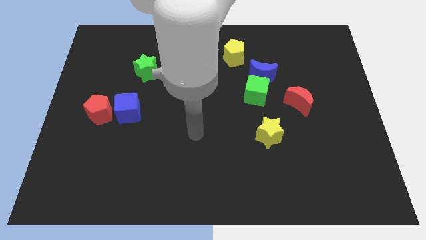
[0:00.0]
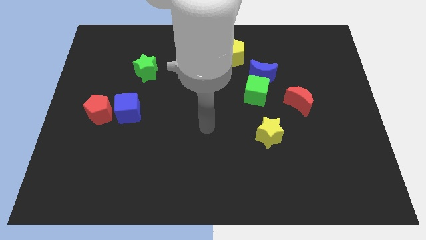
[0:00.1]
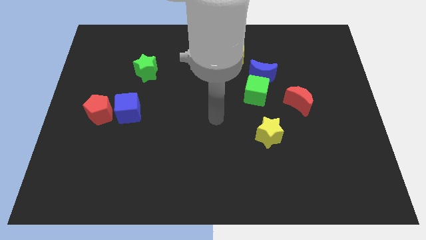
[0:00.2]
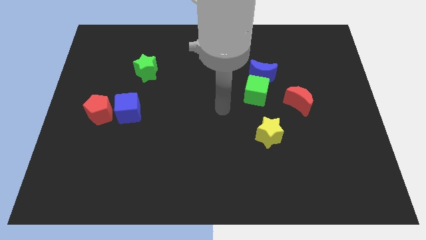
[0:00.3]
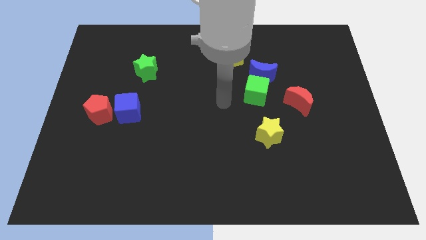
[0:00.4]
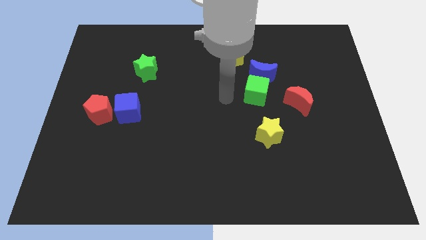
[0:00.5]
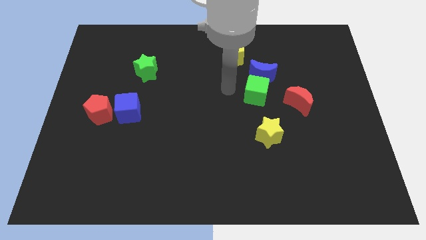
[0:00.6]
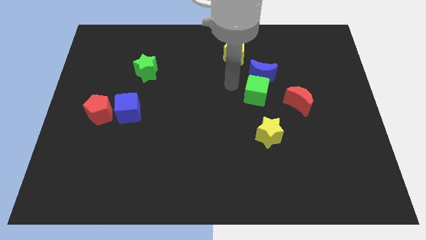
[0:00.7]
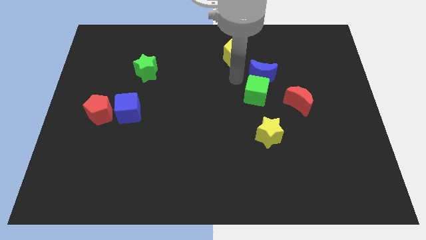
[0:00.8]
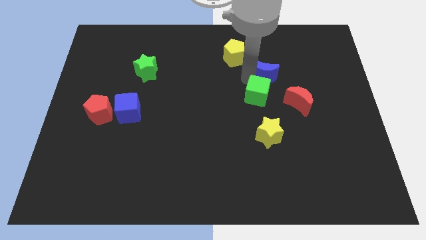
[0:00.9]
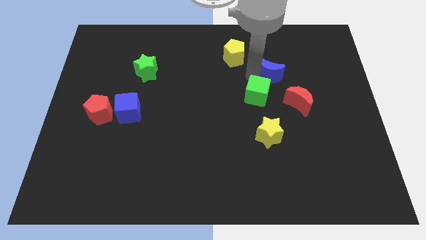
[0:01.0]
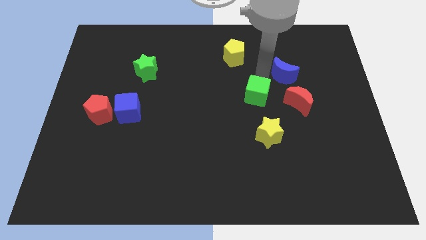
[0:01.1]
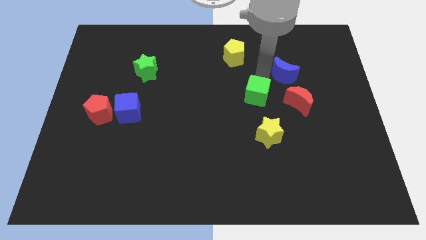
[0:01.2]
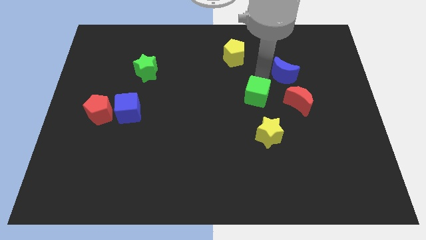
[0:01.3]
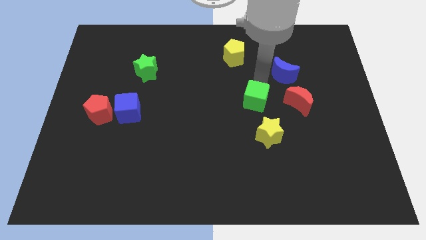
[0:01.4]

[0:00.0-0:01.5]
move the green cube away from the blue moon

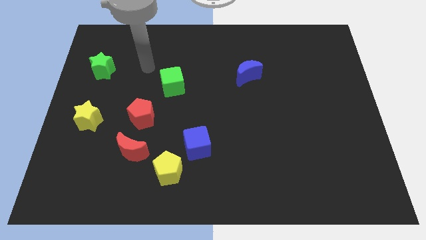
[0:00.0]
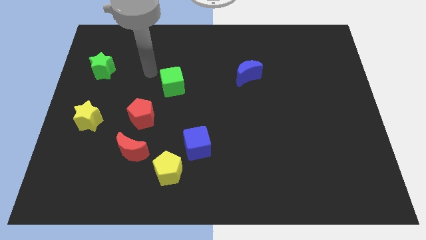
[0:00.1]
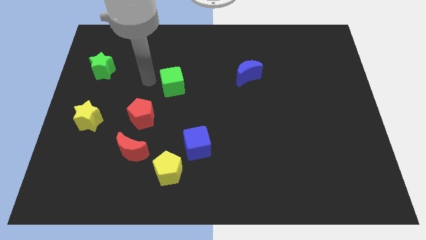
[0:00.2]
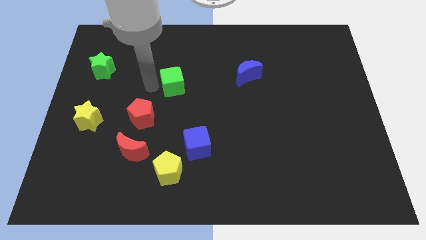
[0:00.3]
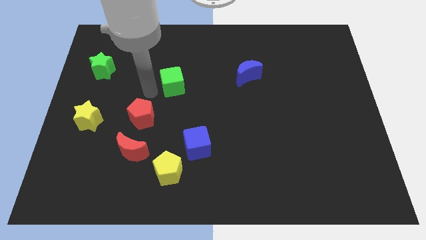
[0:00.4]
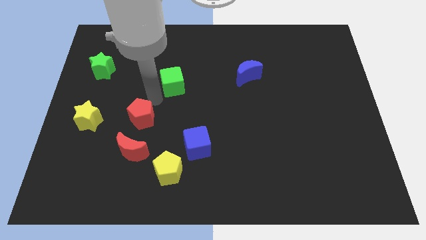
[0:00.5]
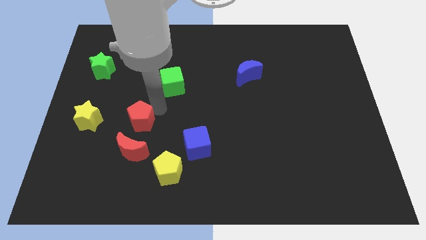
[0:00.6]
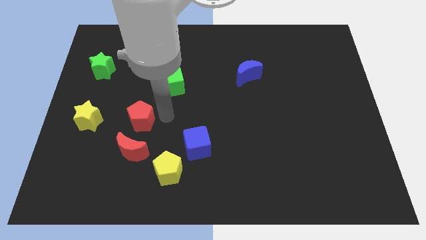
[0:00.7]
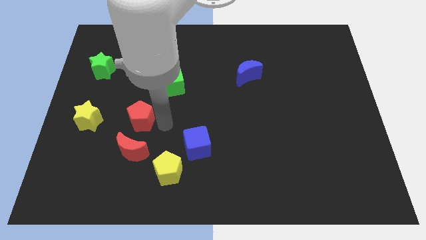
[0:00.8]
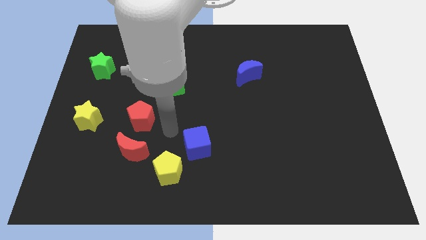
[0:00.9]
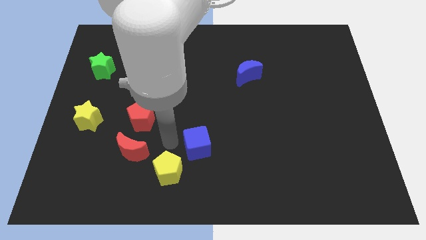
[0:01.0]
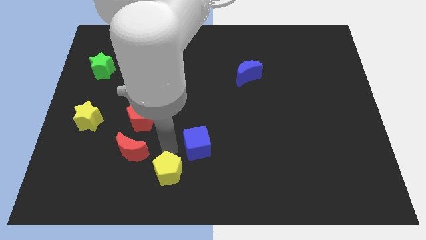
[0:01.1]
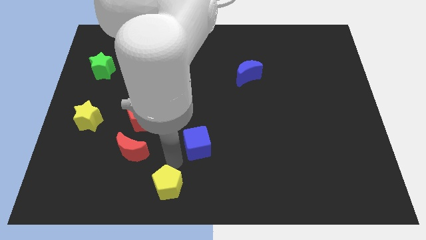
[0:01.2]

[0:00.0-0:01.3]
pull the blue cube apart from the yellow pentagon

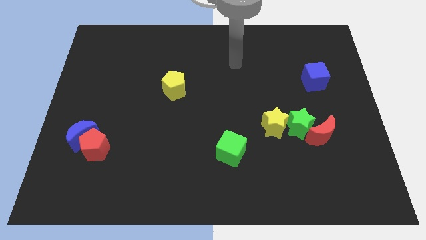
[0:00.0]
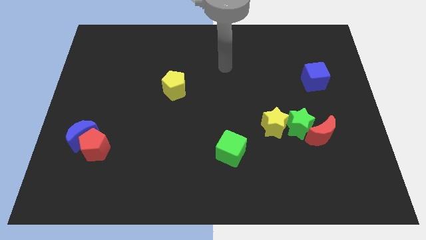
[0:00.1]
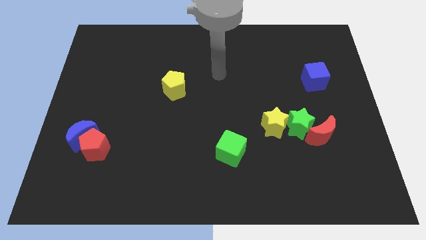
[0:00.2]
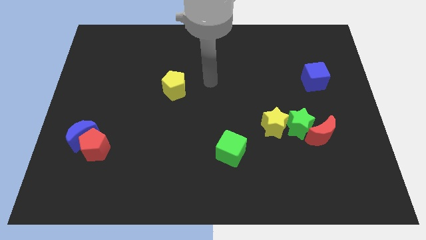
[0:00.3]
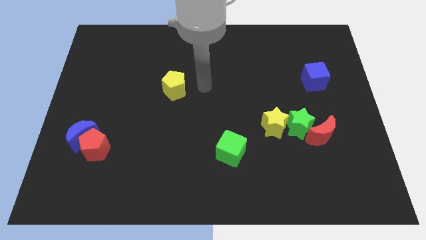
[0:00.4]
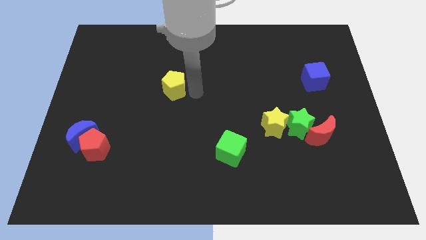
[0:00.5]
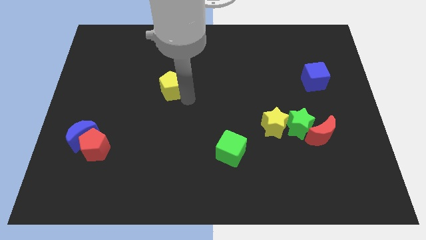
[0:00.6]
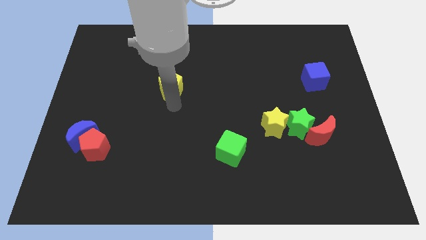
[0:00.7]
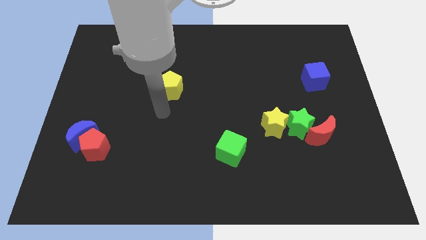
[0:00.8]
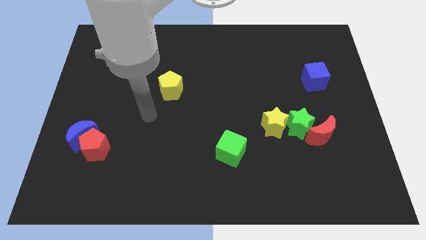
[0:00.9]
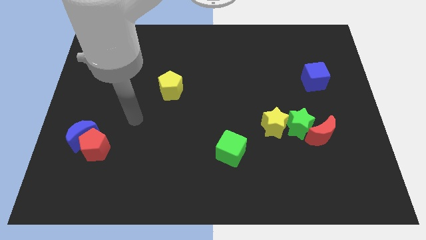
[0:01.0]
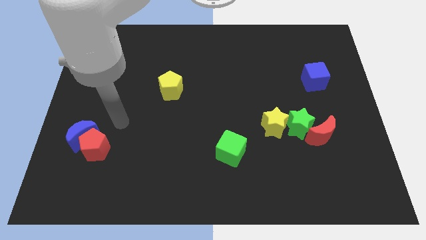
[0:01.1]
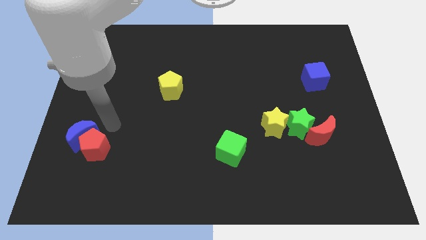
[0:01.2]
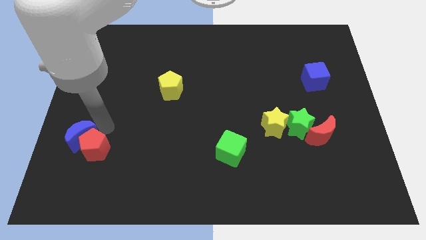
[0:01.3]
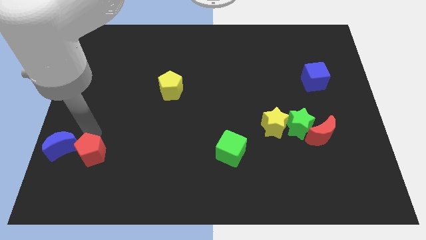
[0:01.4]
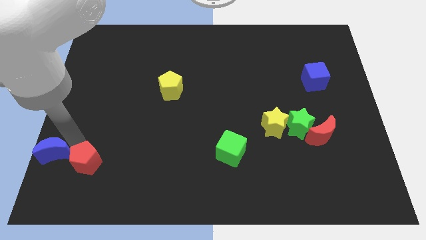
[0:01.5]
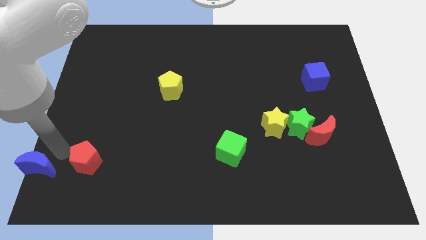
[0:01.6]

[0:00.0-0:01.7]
move the red pentagon away from the blue moon

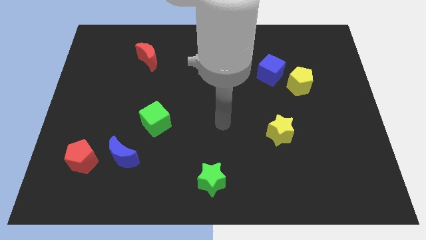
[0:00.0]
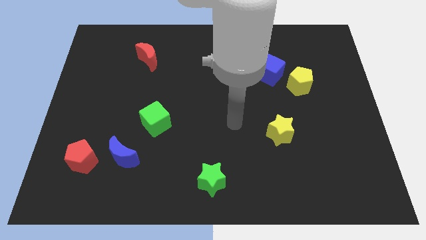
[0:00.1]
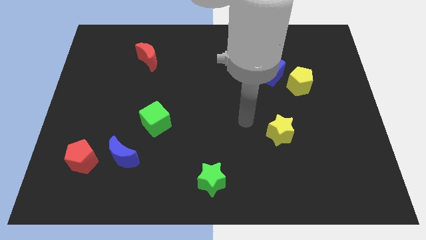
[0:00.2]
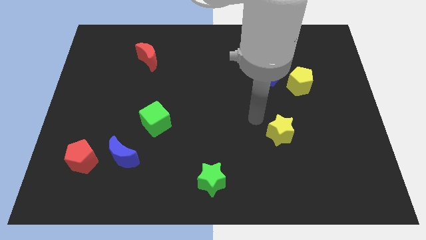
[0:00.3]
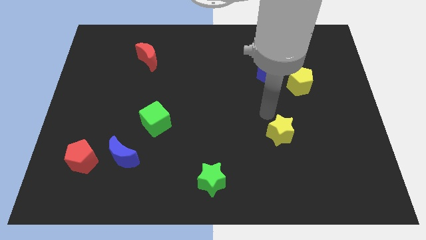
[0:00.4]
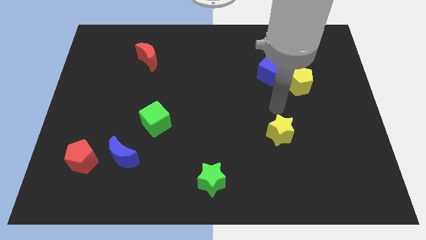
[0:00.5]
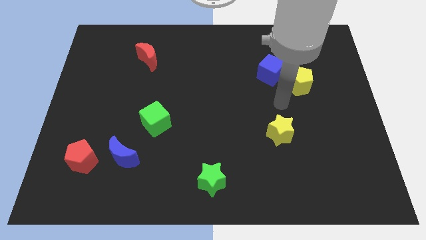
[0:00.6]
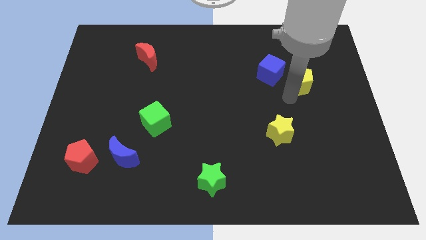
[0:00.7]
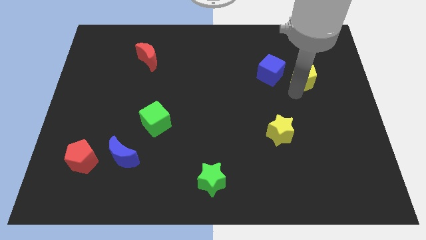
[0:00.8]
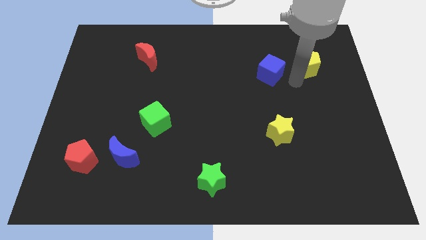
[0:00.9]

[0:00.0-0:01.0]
separate the blue cube from the yellow pentagon

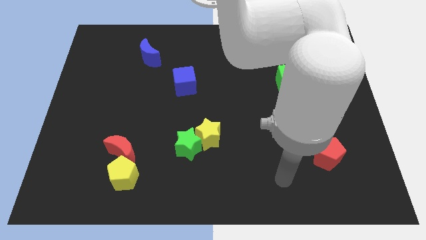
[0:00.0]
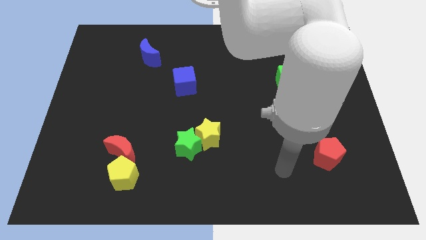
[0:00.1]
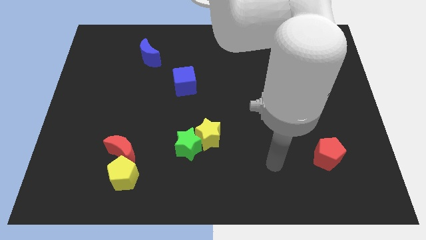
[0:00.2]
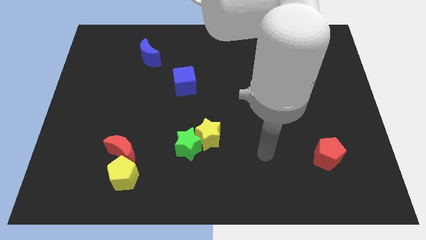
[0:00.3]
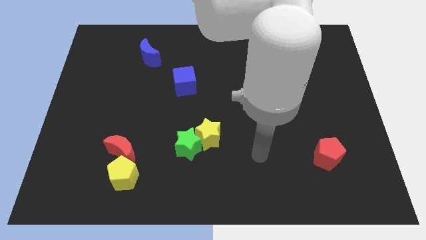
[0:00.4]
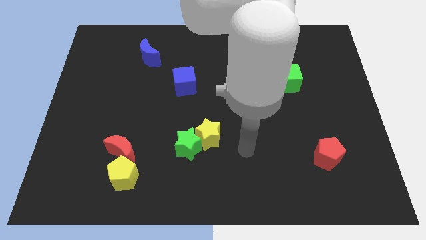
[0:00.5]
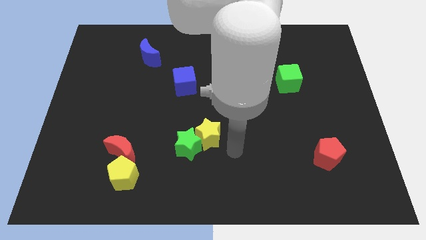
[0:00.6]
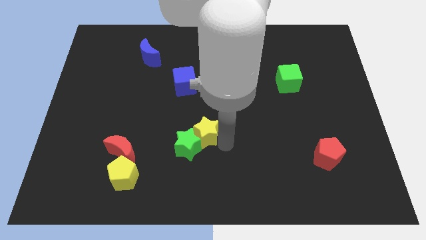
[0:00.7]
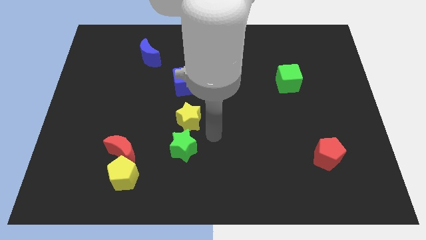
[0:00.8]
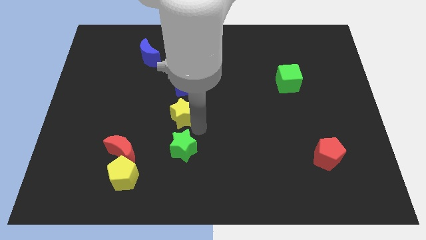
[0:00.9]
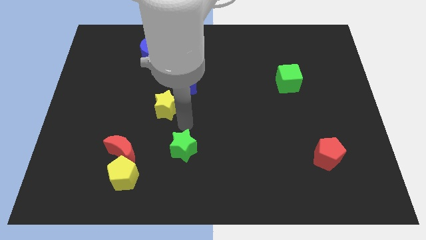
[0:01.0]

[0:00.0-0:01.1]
separate the green star from the yellow star

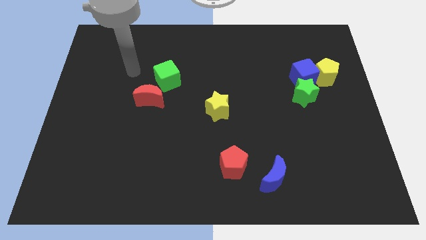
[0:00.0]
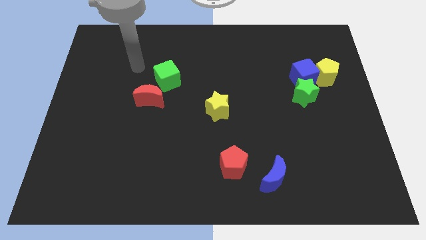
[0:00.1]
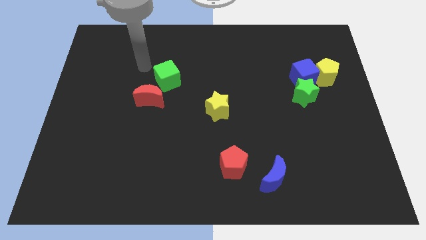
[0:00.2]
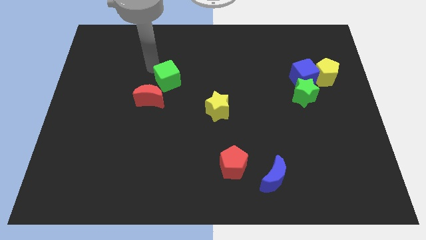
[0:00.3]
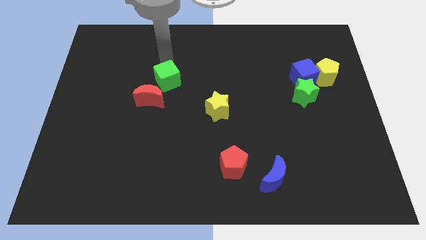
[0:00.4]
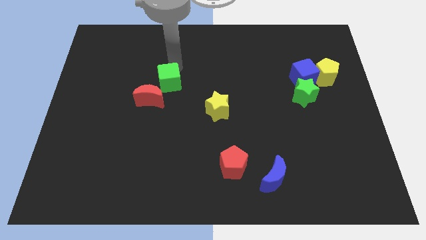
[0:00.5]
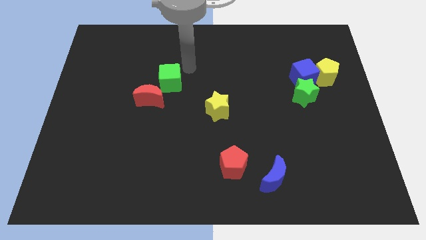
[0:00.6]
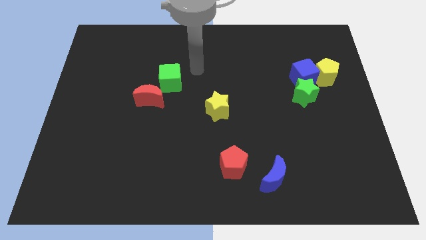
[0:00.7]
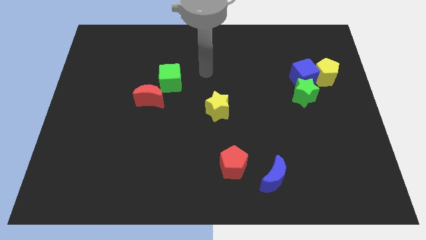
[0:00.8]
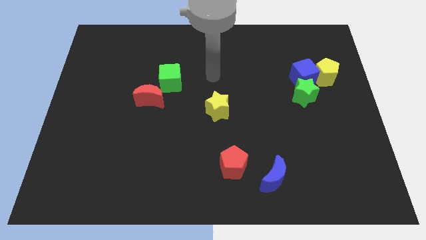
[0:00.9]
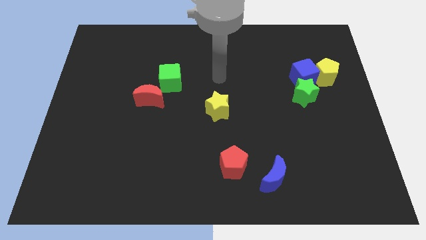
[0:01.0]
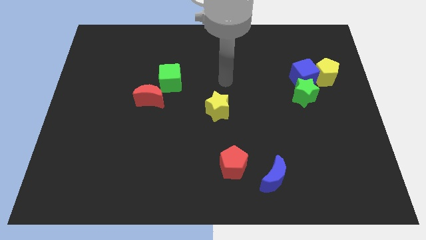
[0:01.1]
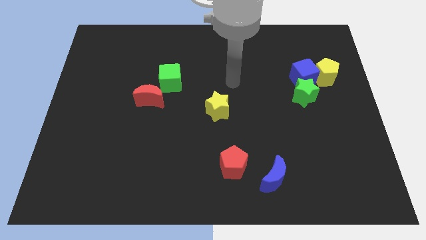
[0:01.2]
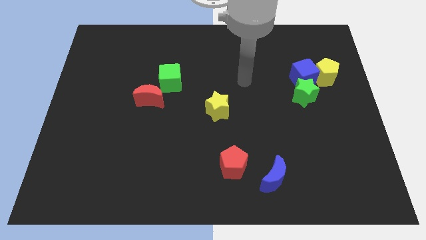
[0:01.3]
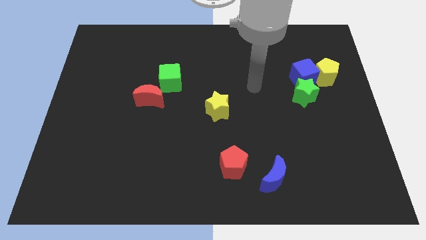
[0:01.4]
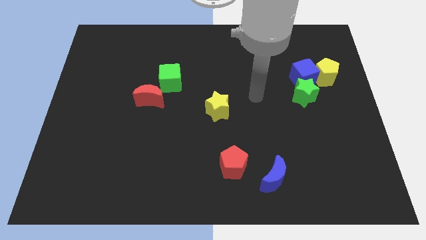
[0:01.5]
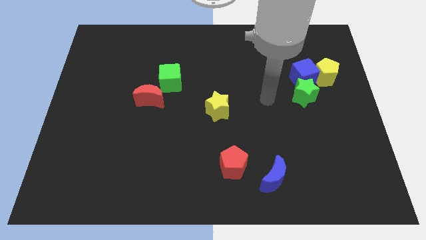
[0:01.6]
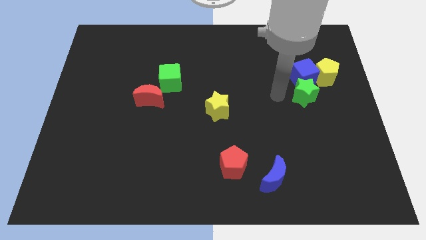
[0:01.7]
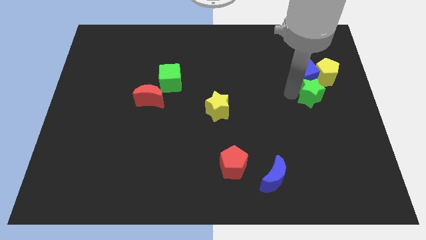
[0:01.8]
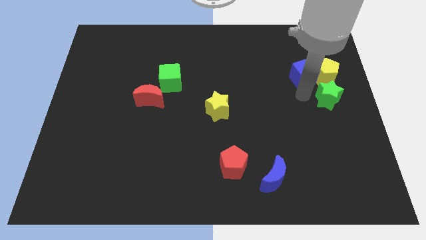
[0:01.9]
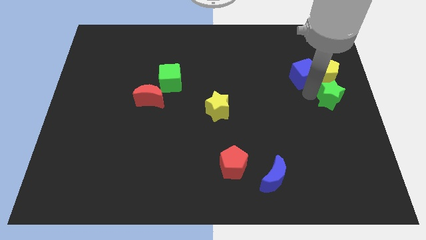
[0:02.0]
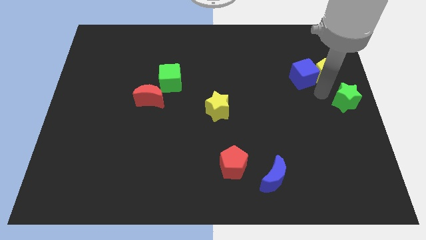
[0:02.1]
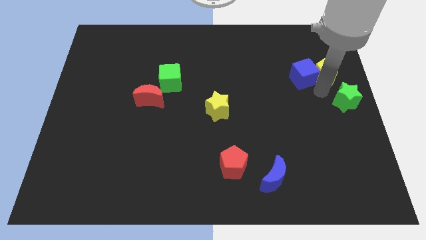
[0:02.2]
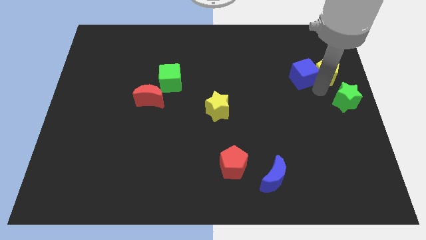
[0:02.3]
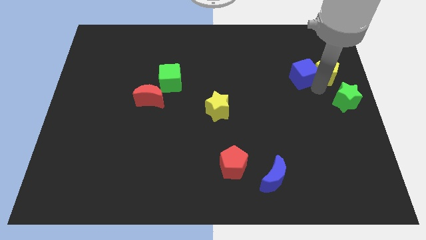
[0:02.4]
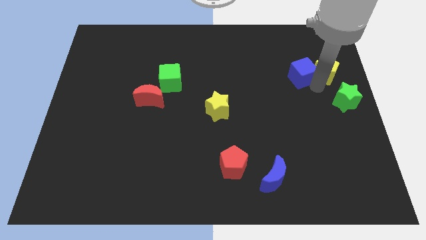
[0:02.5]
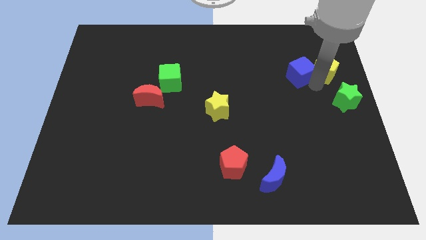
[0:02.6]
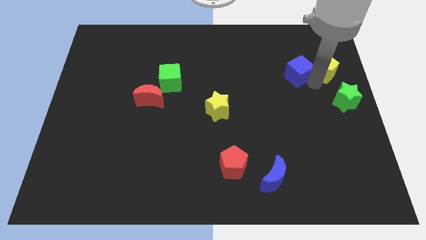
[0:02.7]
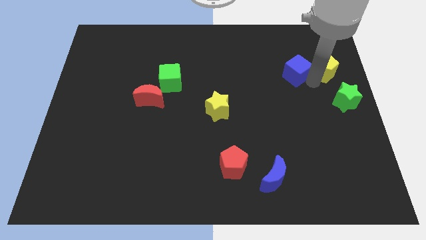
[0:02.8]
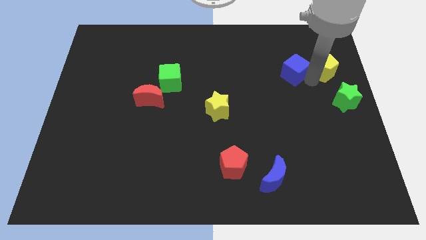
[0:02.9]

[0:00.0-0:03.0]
separate the blue cube from the yellow pentagon and green star
